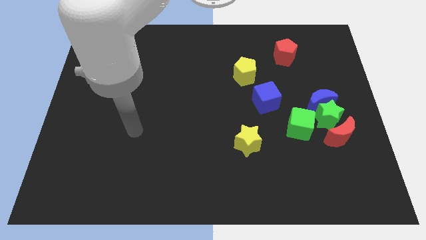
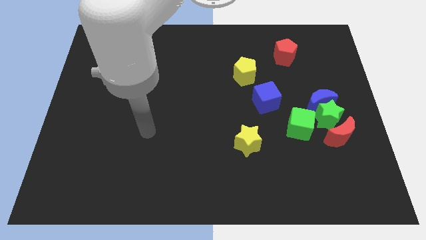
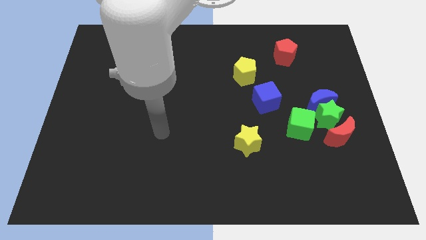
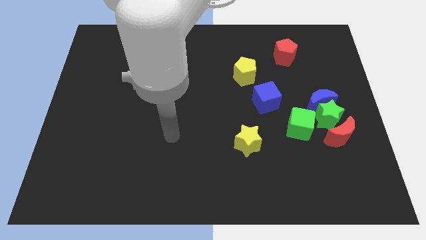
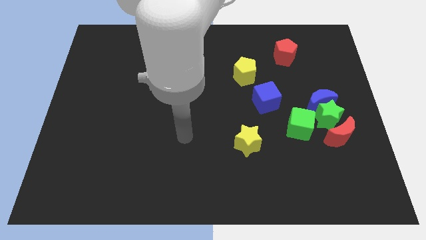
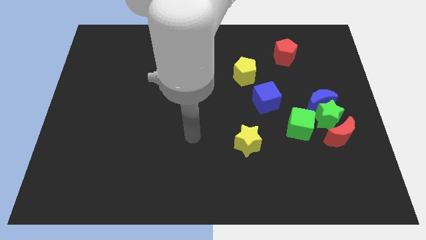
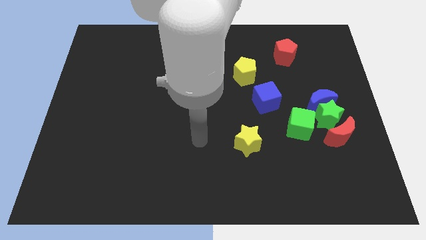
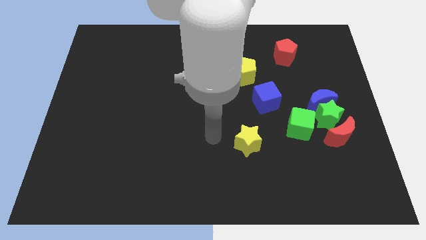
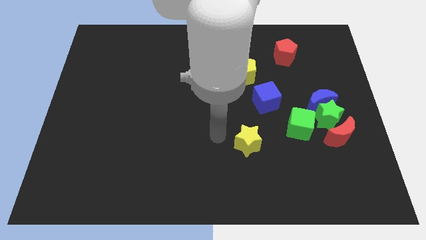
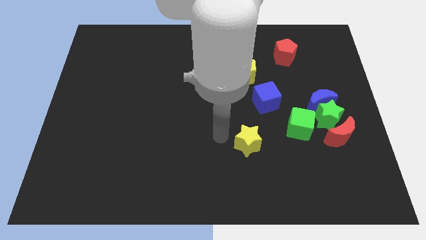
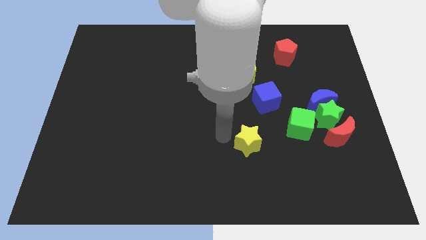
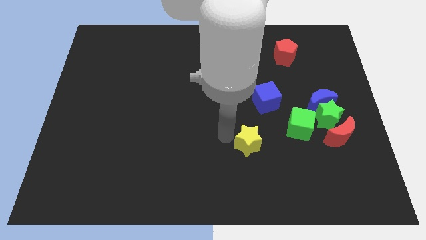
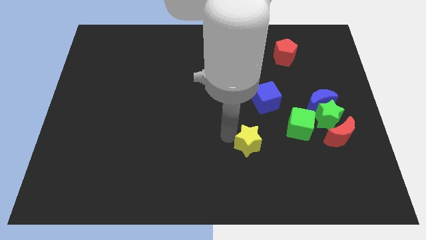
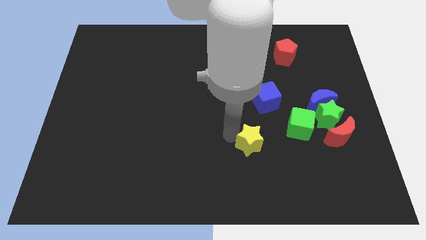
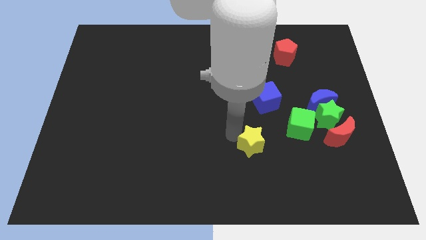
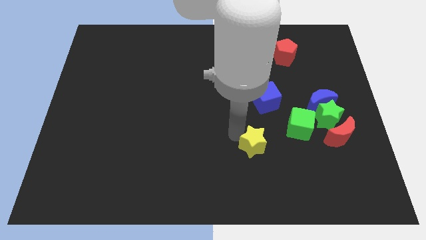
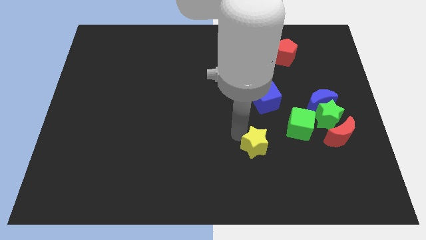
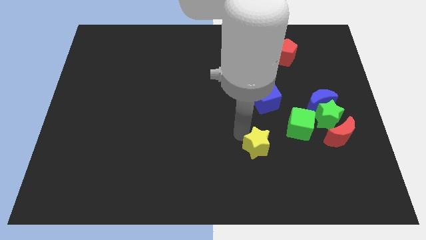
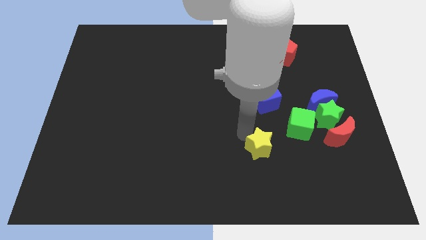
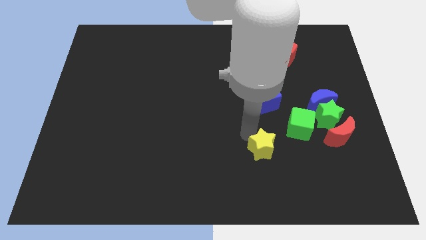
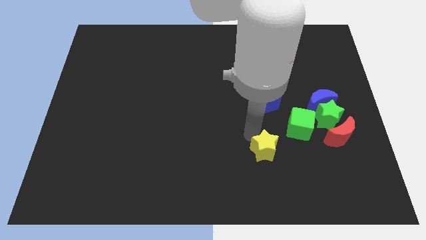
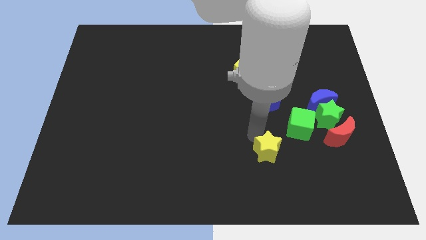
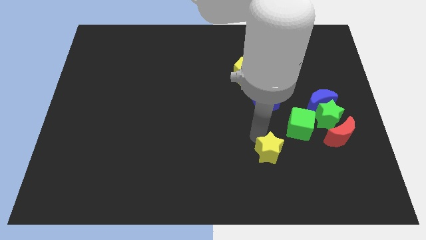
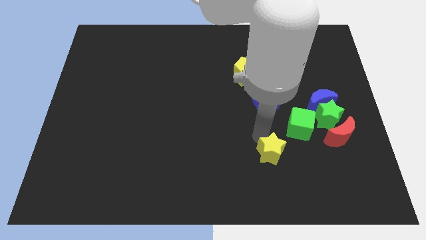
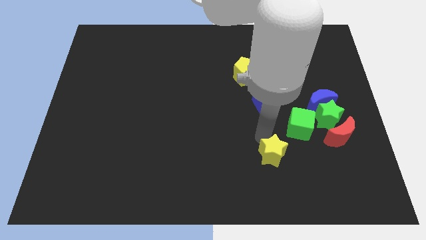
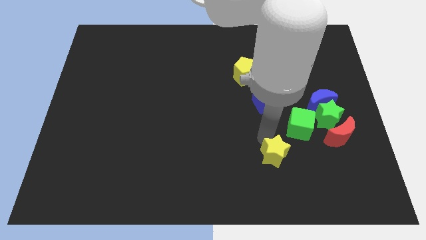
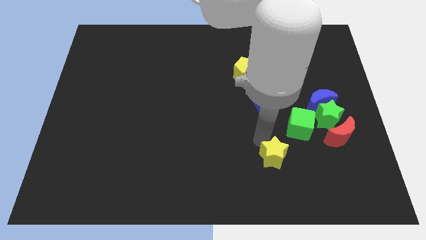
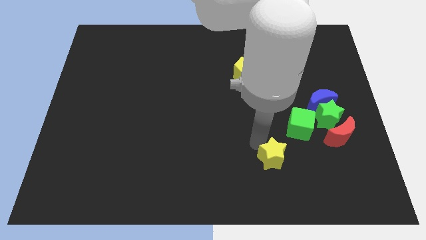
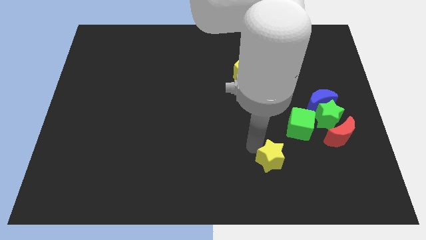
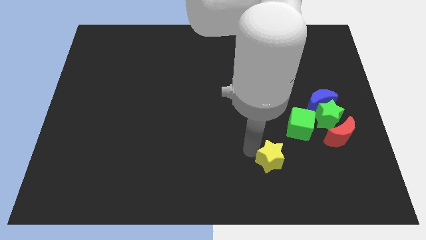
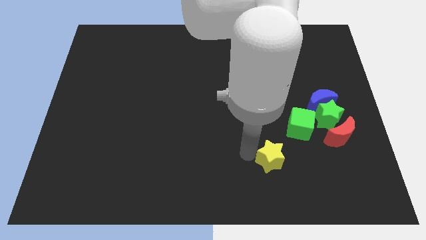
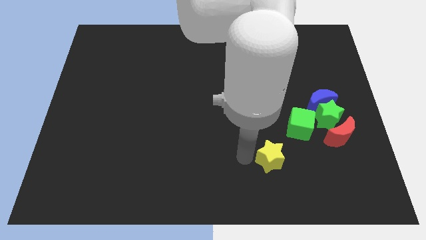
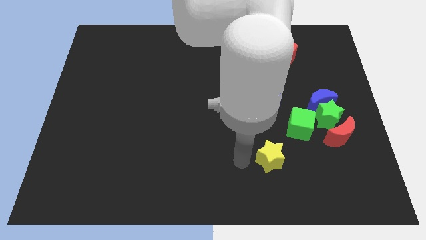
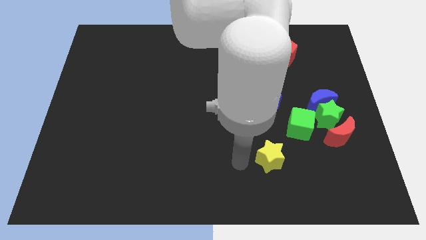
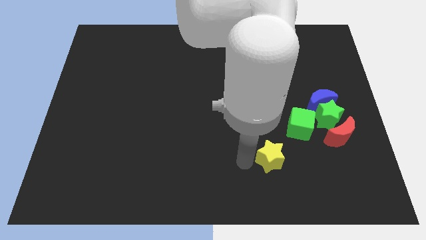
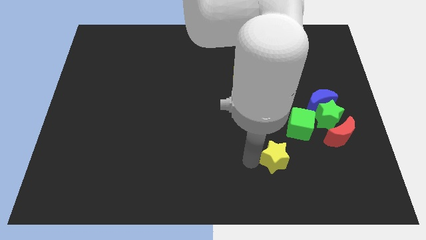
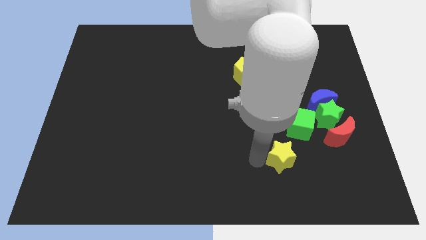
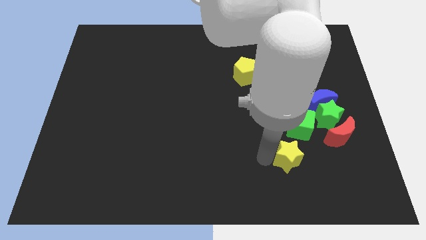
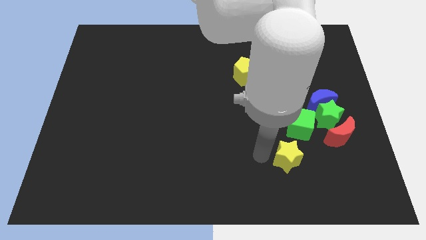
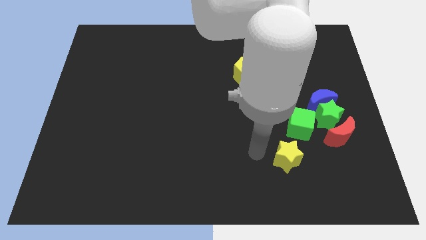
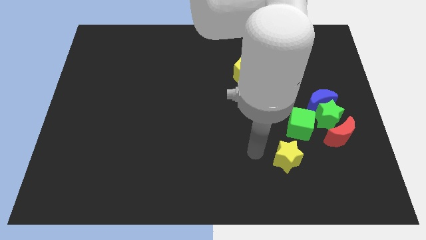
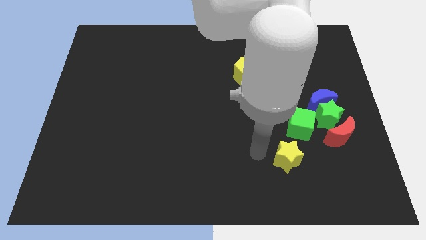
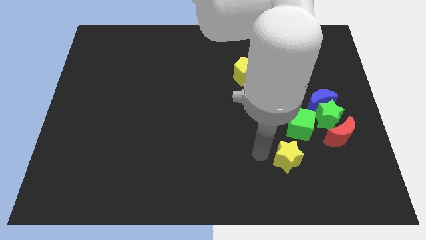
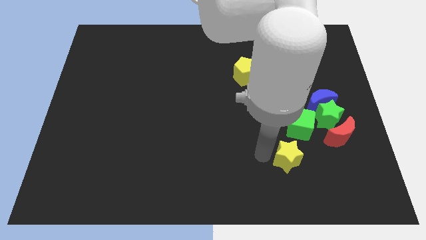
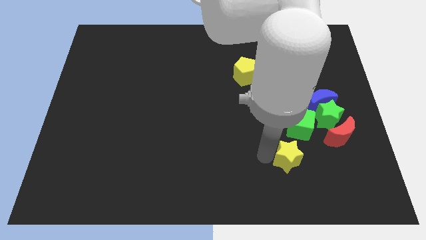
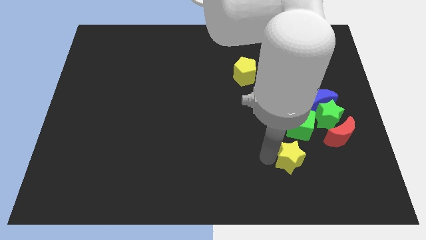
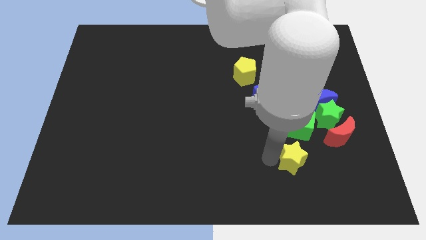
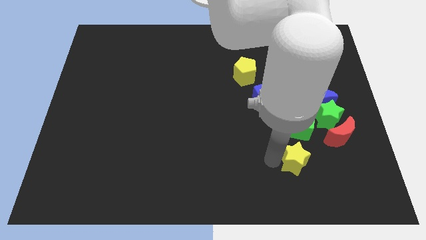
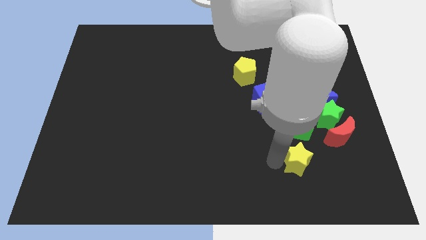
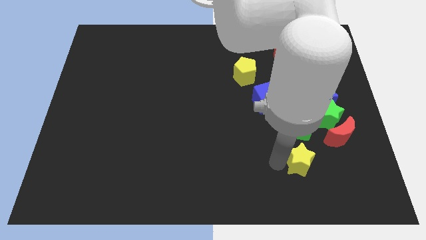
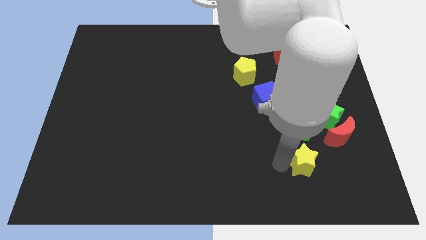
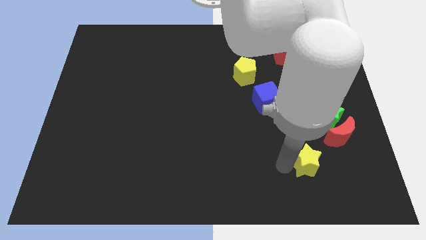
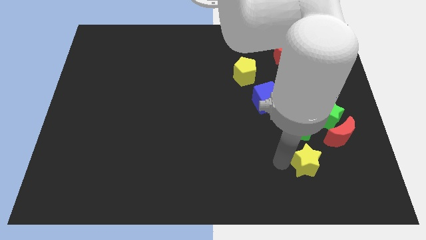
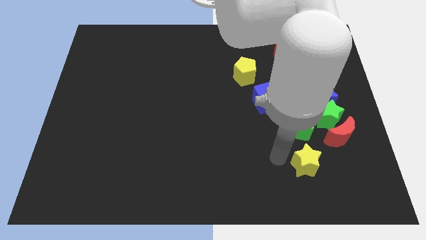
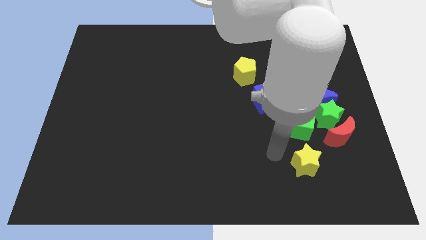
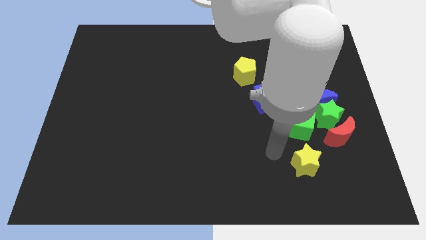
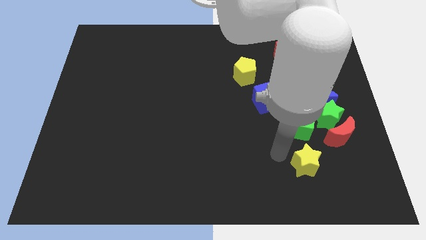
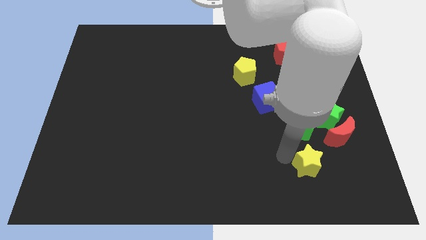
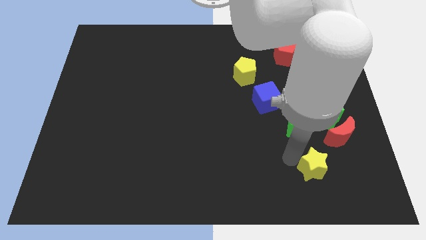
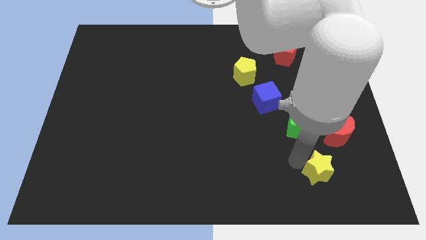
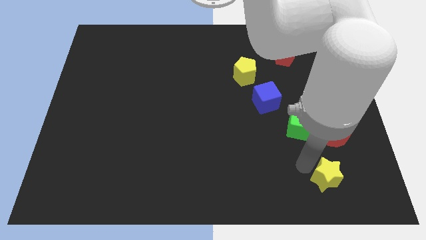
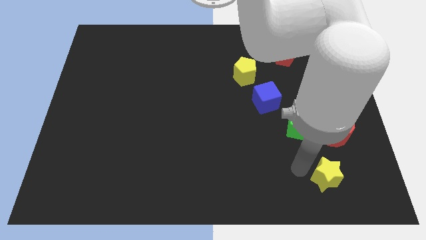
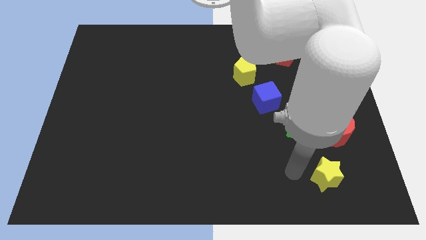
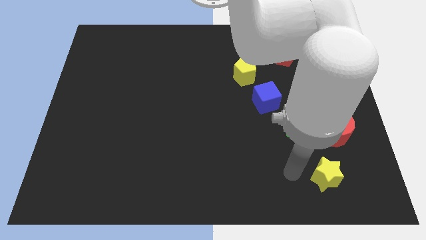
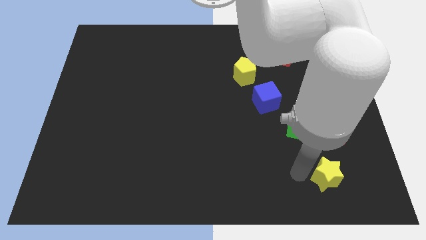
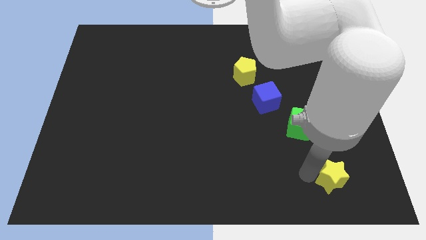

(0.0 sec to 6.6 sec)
push the yellow star below the red moon

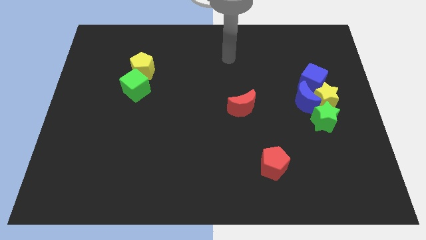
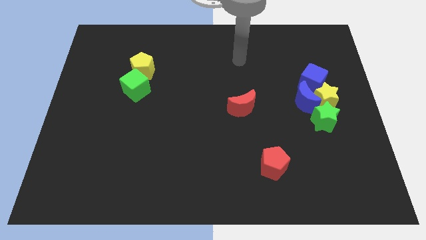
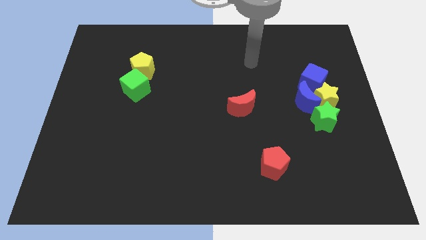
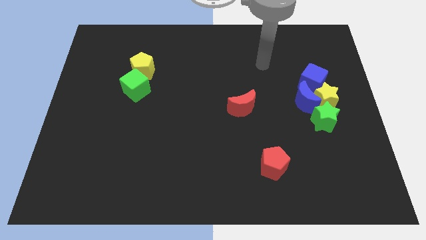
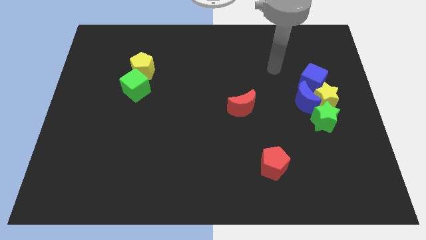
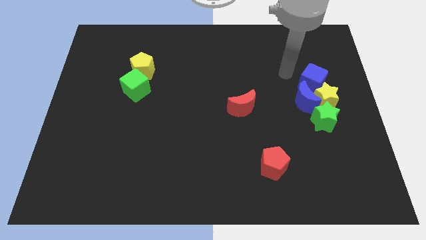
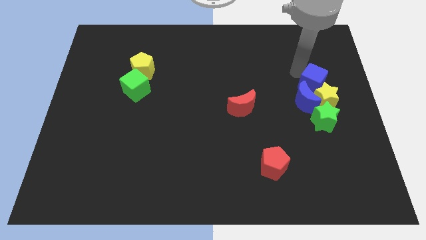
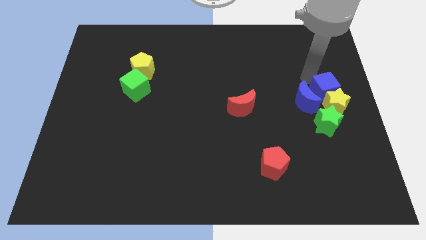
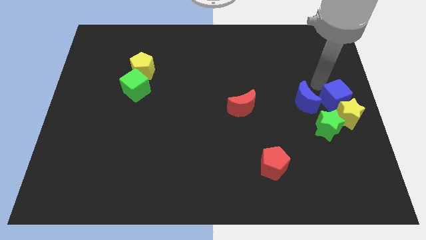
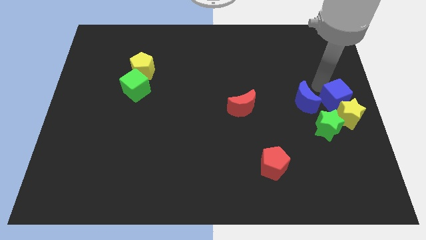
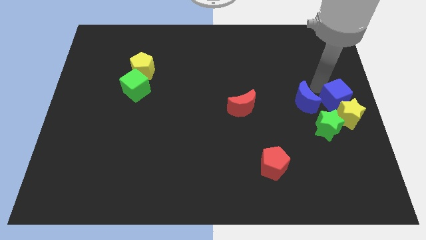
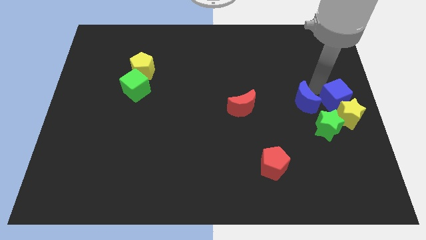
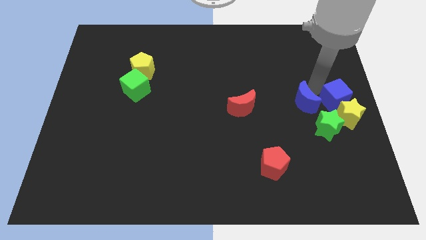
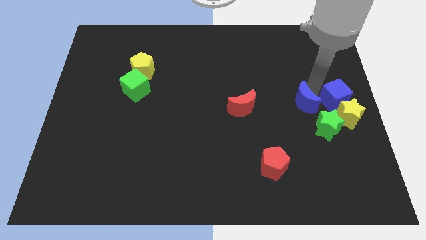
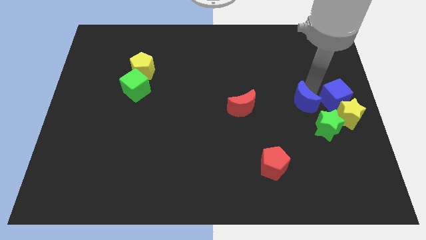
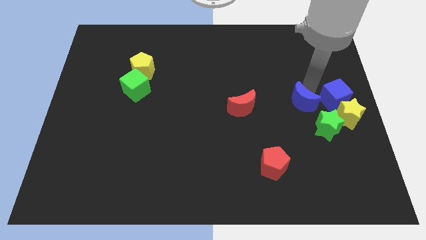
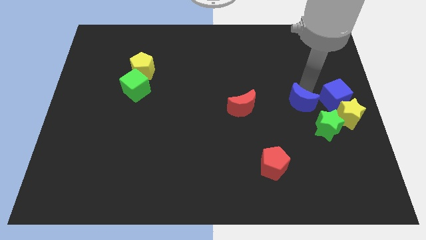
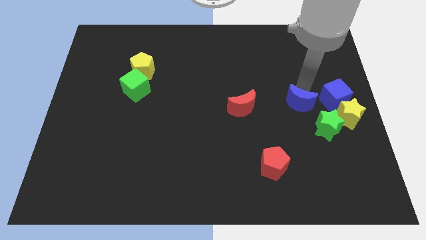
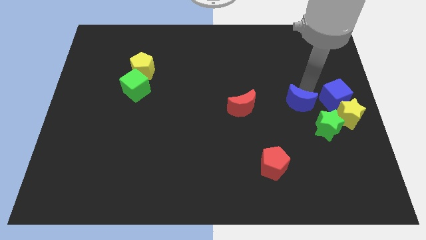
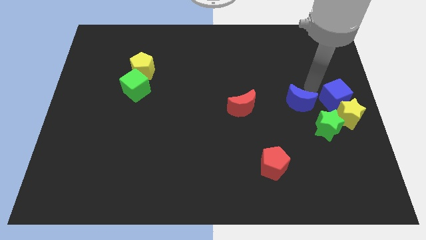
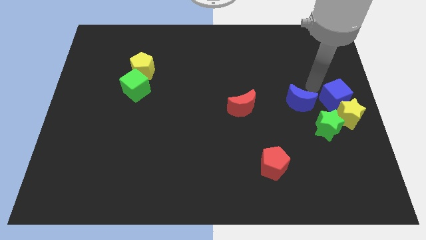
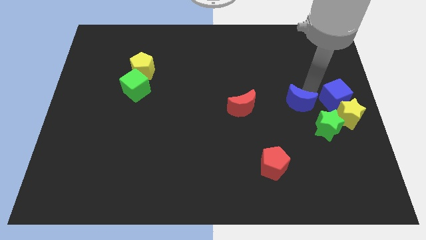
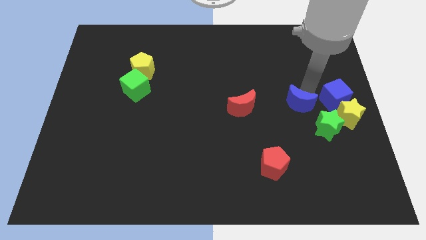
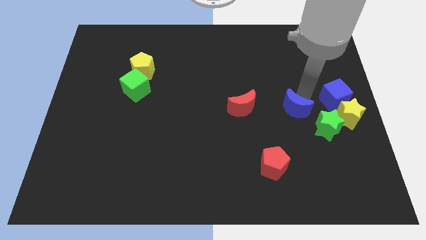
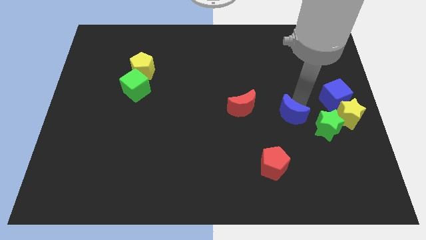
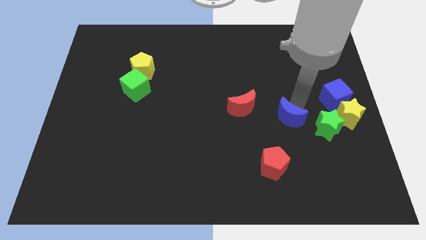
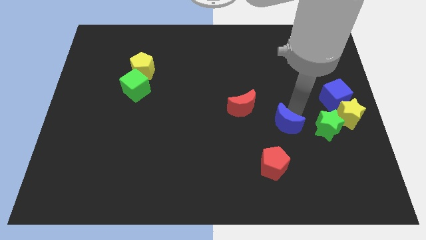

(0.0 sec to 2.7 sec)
move the blue moon to the bottom right side of the red moon
